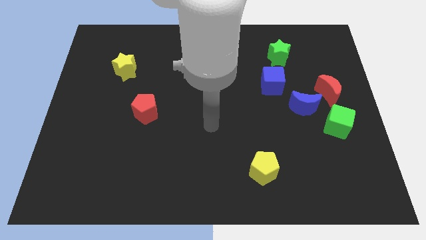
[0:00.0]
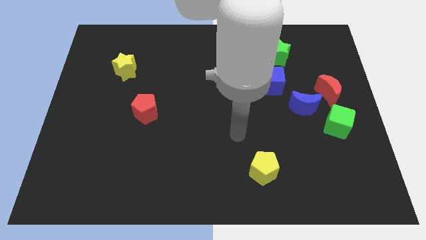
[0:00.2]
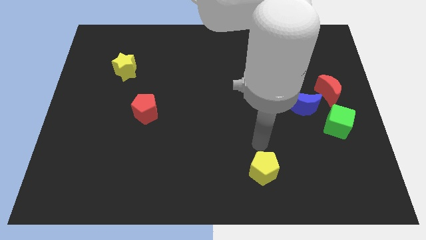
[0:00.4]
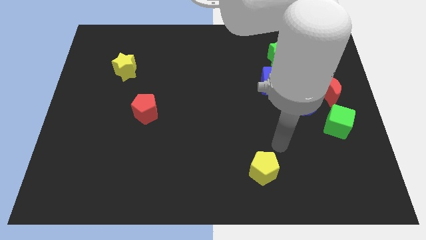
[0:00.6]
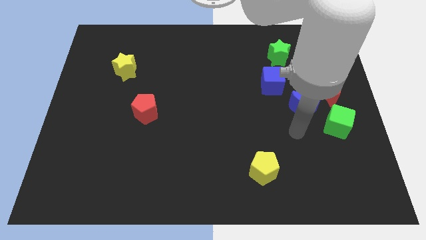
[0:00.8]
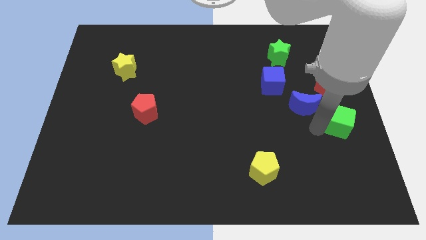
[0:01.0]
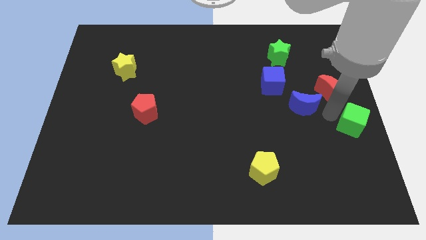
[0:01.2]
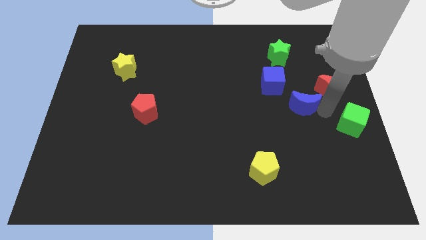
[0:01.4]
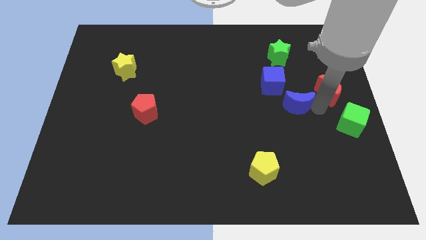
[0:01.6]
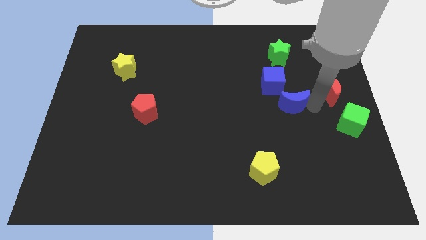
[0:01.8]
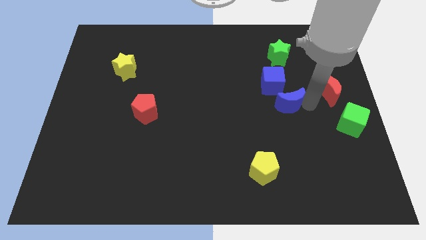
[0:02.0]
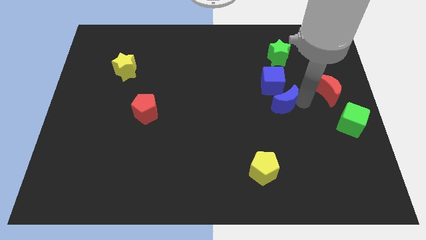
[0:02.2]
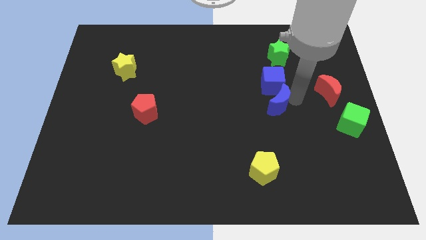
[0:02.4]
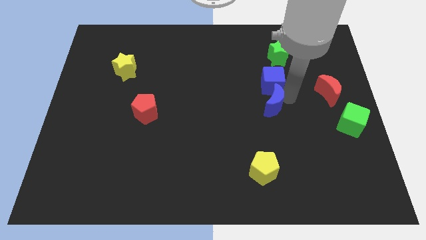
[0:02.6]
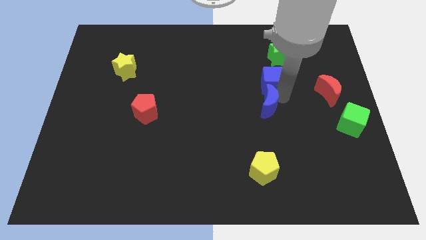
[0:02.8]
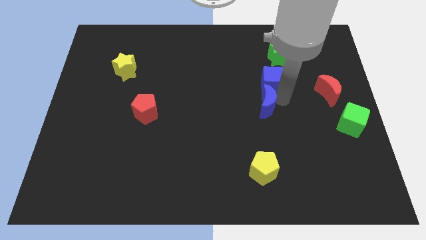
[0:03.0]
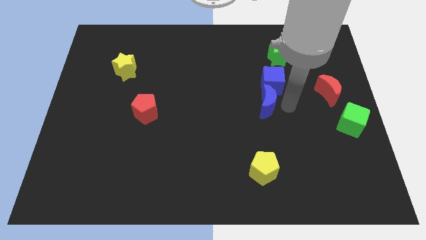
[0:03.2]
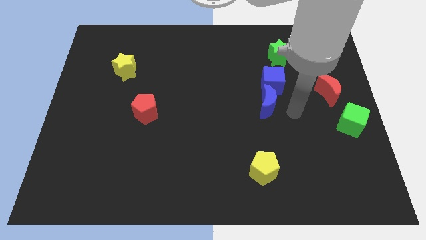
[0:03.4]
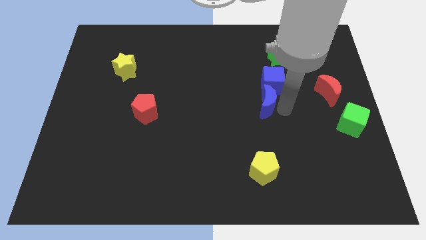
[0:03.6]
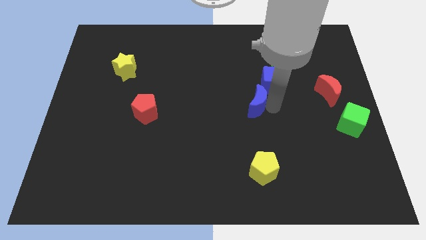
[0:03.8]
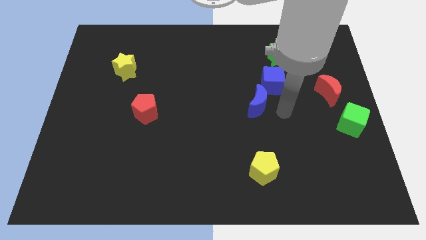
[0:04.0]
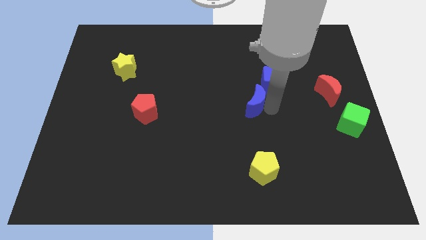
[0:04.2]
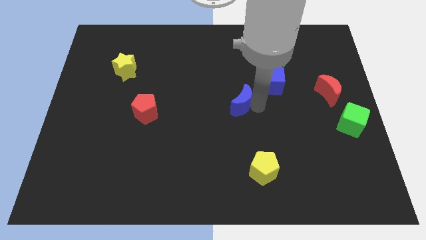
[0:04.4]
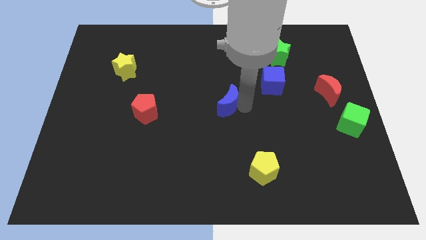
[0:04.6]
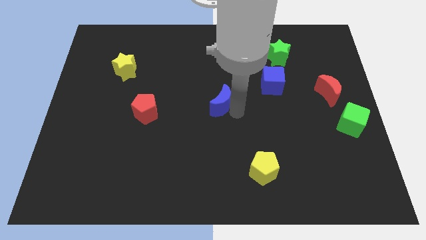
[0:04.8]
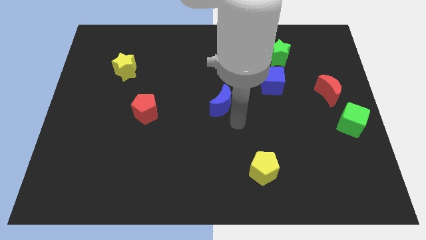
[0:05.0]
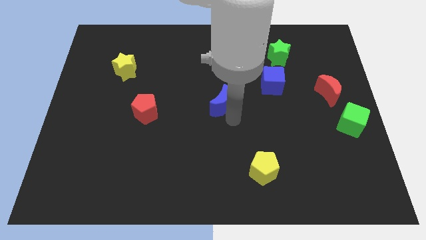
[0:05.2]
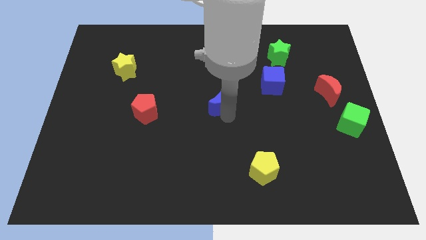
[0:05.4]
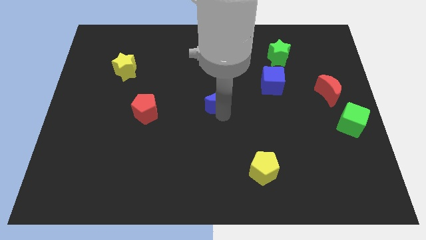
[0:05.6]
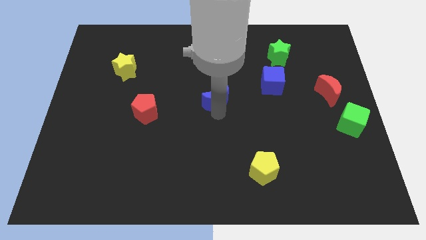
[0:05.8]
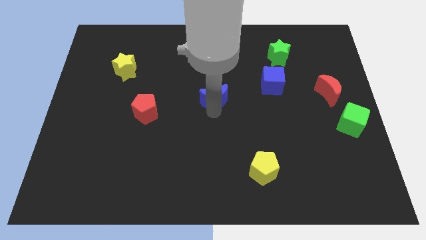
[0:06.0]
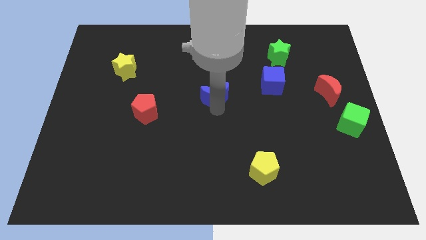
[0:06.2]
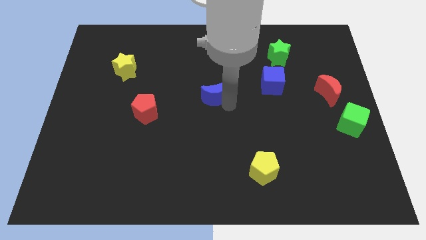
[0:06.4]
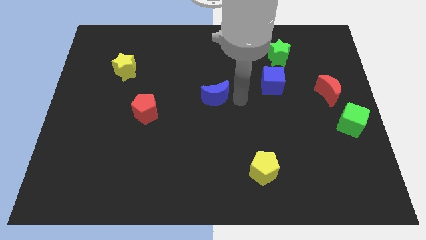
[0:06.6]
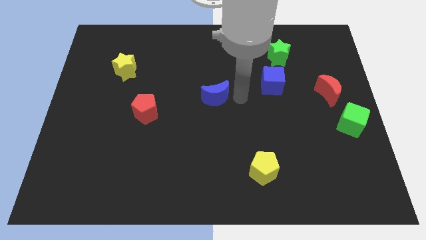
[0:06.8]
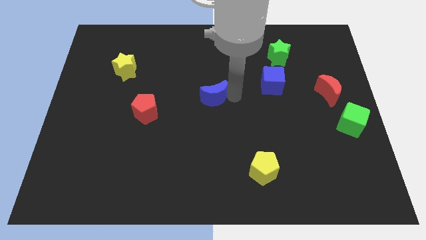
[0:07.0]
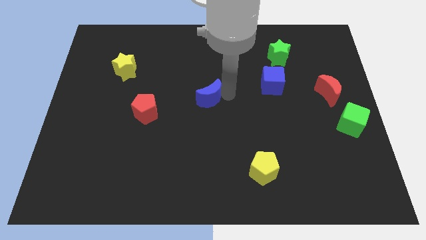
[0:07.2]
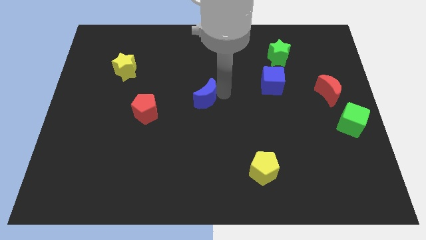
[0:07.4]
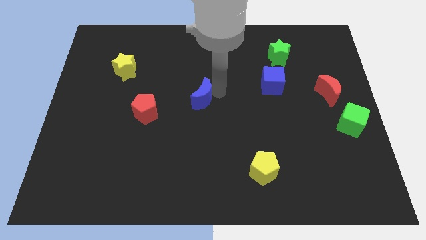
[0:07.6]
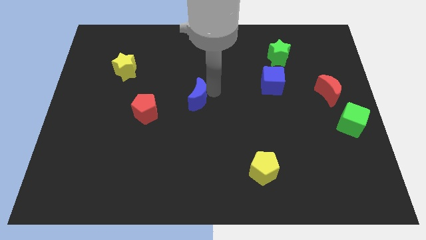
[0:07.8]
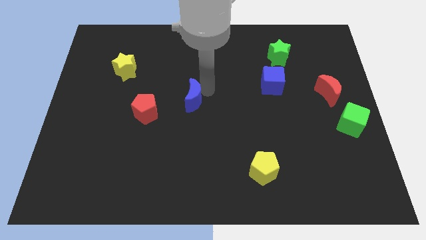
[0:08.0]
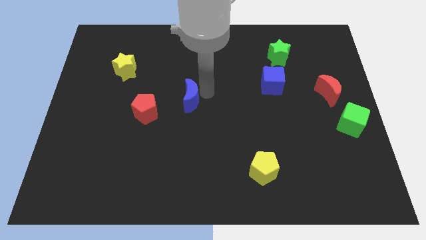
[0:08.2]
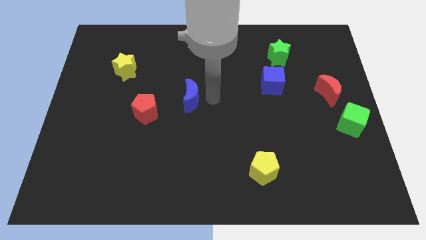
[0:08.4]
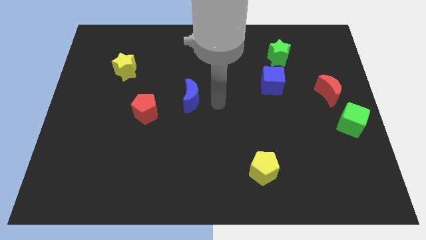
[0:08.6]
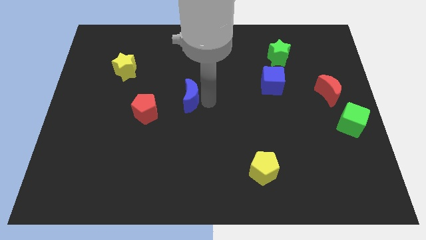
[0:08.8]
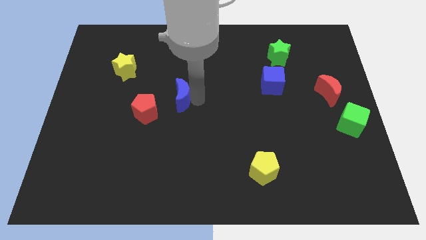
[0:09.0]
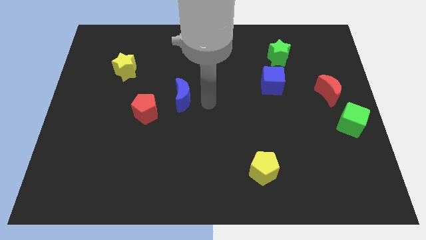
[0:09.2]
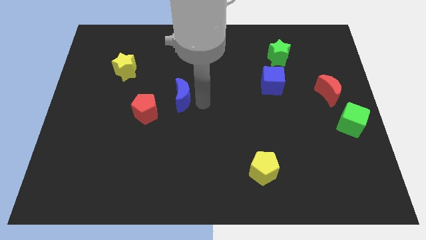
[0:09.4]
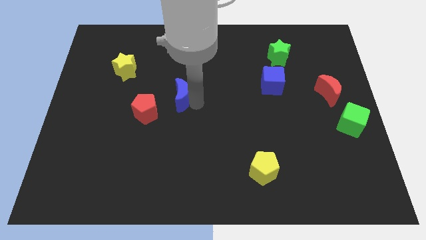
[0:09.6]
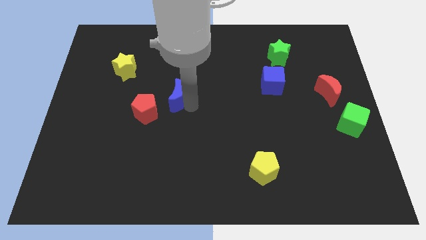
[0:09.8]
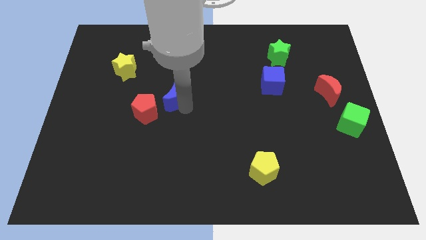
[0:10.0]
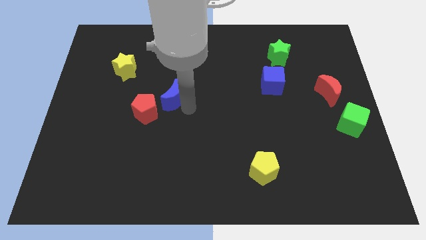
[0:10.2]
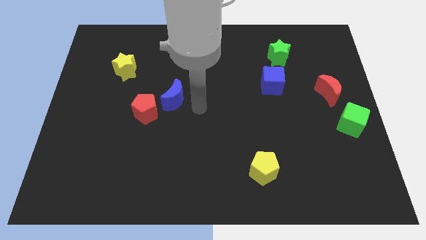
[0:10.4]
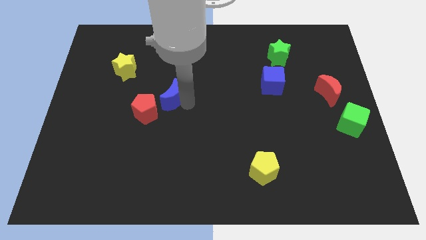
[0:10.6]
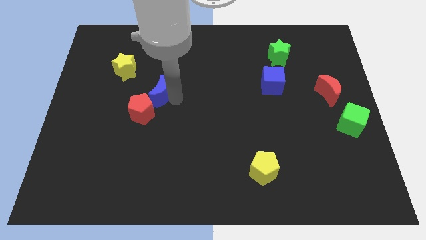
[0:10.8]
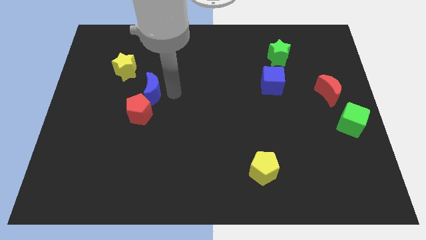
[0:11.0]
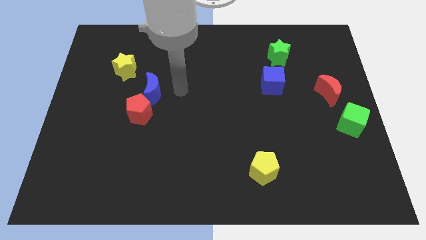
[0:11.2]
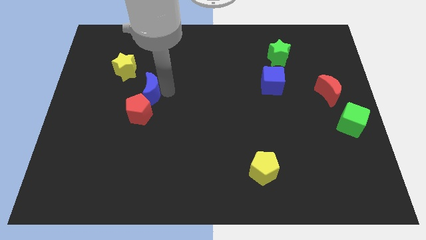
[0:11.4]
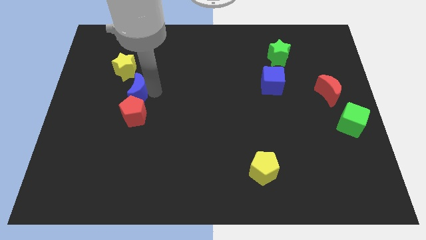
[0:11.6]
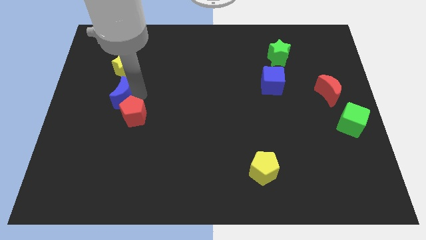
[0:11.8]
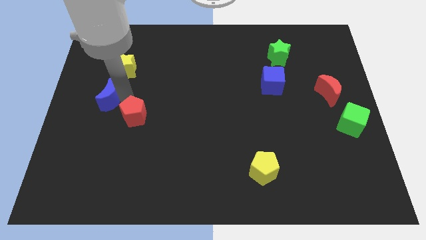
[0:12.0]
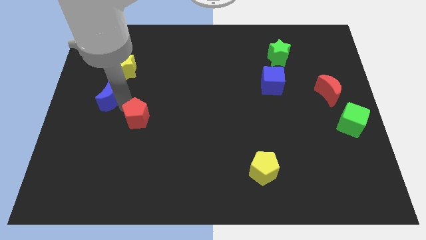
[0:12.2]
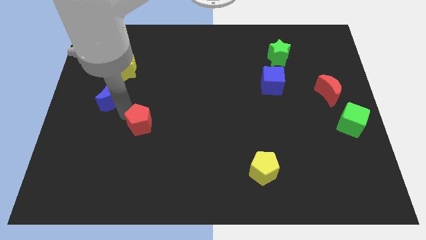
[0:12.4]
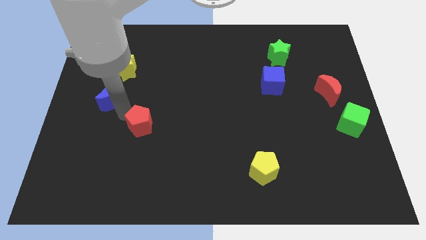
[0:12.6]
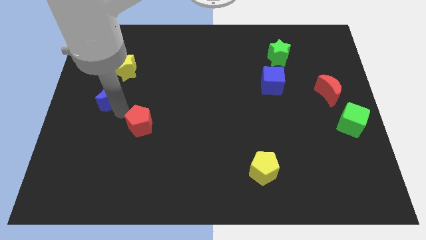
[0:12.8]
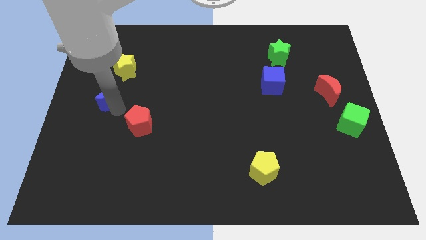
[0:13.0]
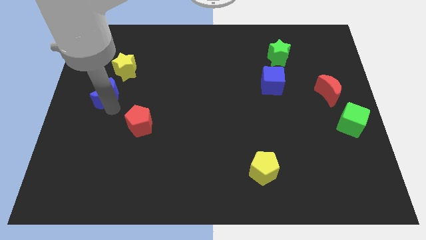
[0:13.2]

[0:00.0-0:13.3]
slide the blue moon to the left side of the board
